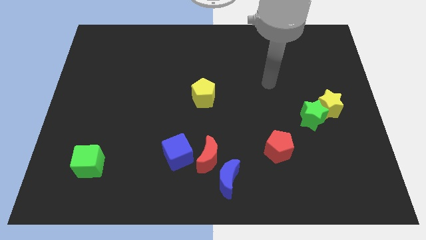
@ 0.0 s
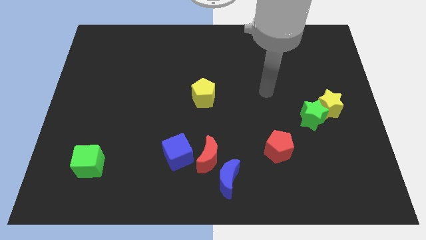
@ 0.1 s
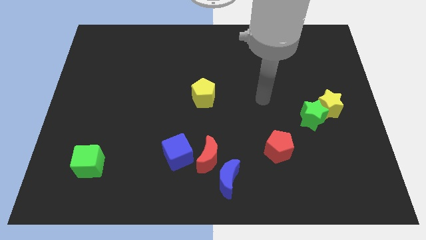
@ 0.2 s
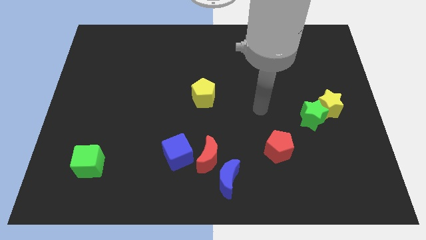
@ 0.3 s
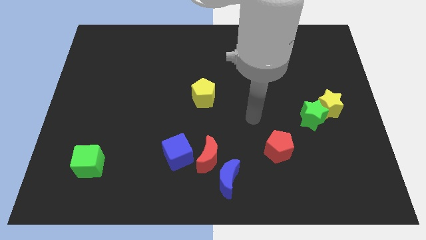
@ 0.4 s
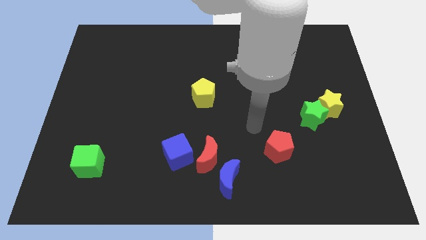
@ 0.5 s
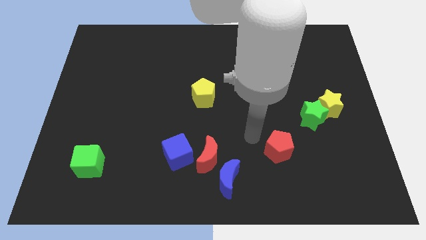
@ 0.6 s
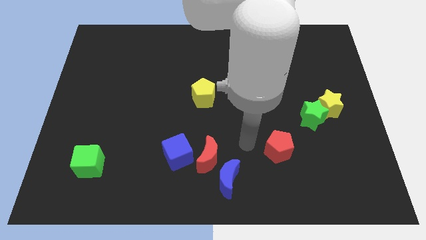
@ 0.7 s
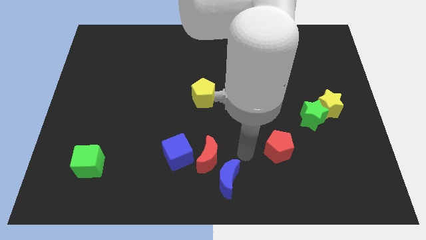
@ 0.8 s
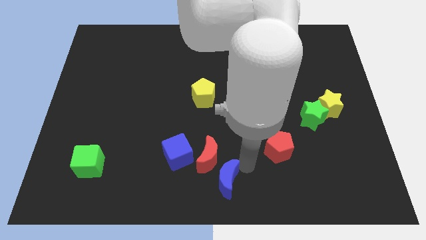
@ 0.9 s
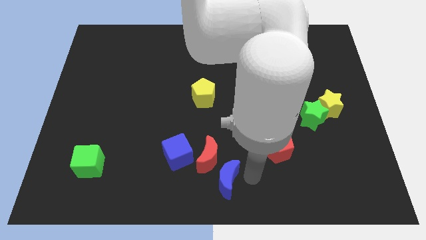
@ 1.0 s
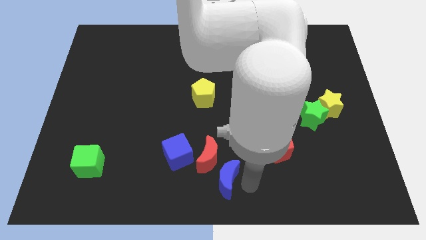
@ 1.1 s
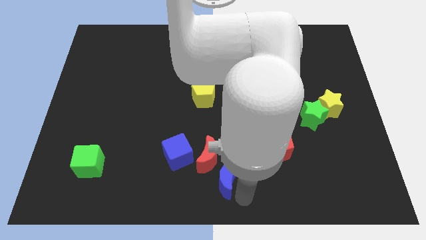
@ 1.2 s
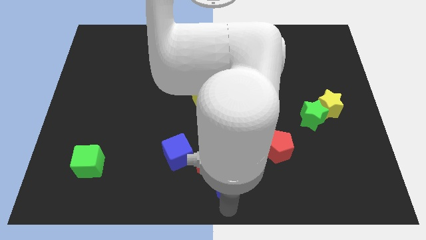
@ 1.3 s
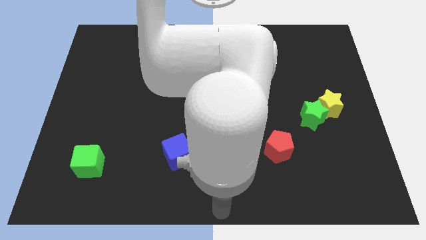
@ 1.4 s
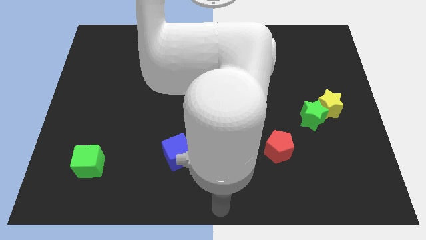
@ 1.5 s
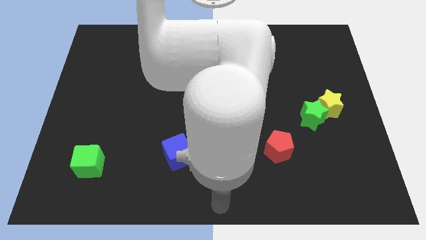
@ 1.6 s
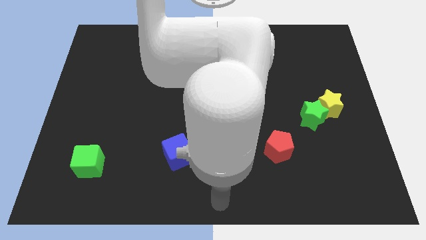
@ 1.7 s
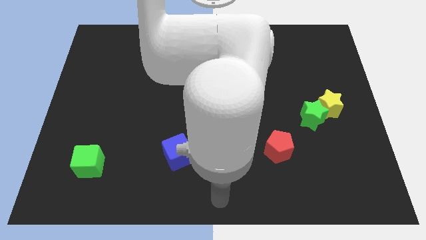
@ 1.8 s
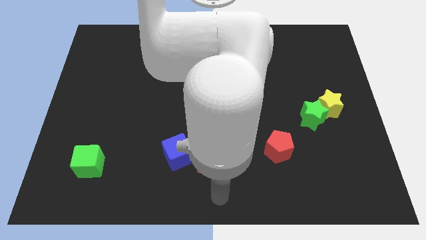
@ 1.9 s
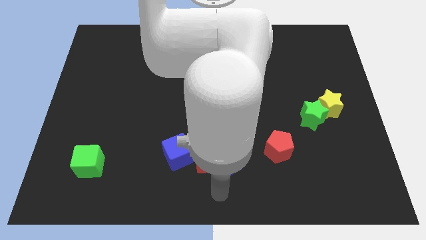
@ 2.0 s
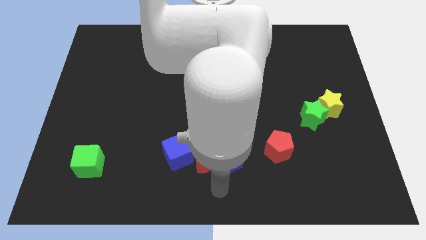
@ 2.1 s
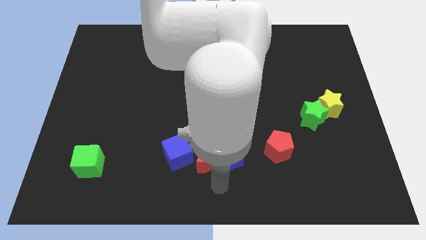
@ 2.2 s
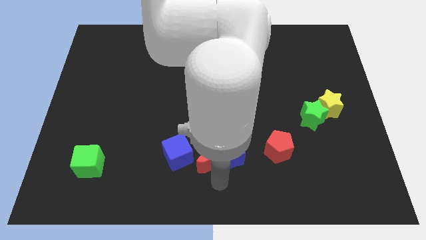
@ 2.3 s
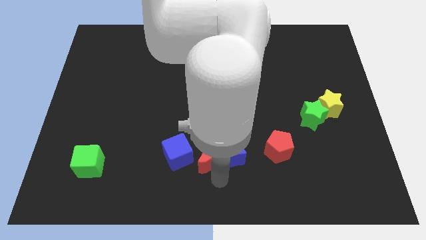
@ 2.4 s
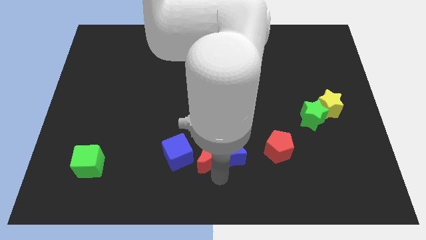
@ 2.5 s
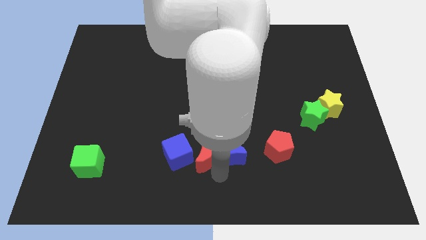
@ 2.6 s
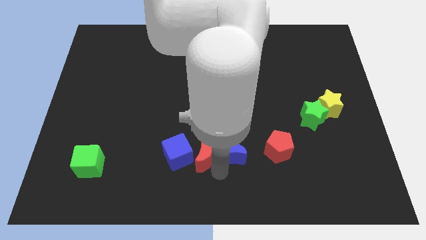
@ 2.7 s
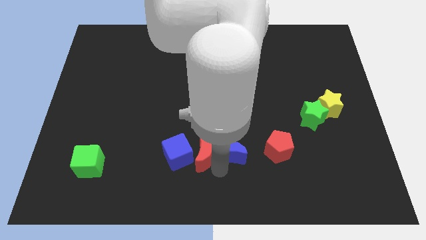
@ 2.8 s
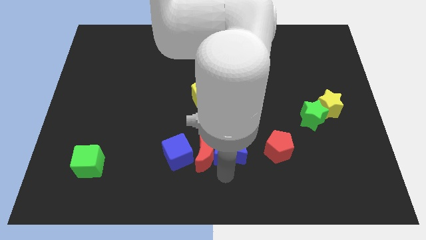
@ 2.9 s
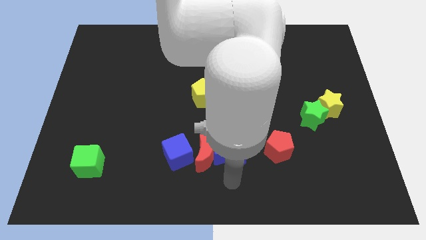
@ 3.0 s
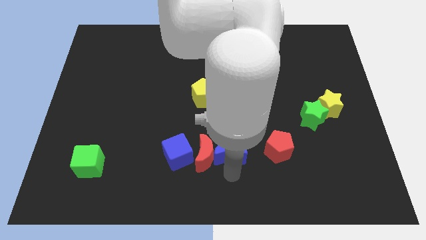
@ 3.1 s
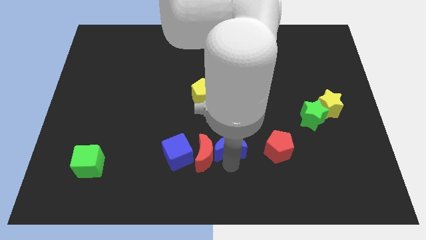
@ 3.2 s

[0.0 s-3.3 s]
slightly push the blue moon upwards

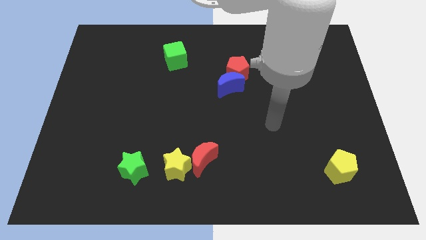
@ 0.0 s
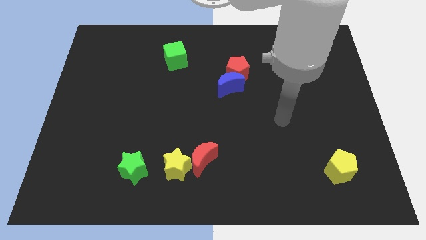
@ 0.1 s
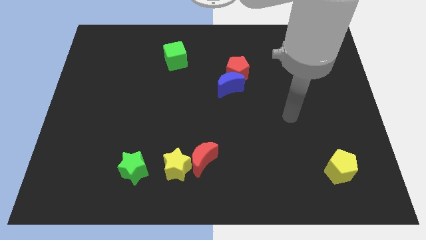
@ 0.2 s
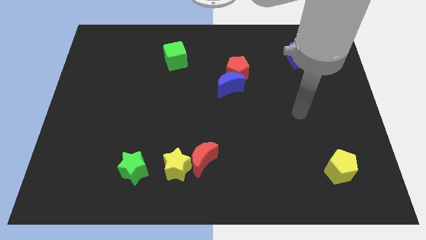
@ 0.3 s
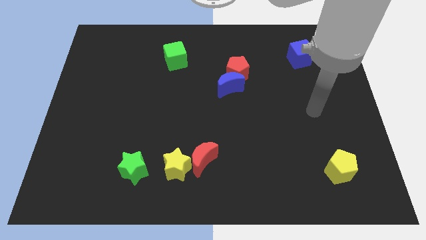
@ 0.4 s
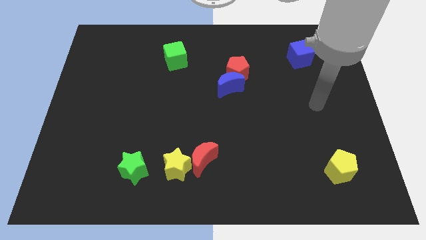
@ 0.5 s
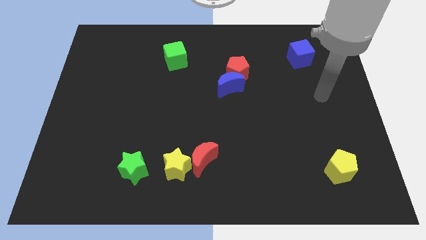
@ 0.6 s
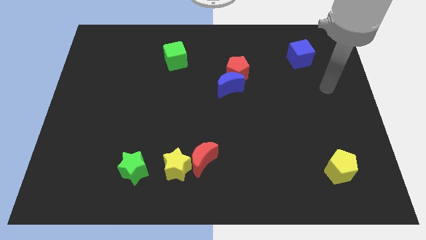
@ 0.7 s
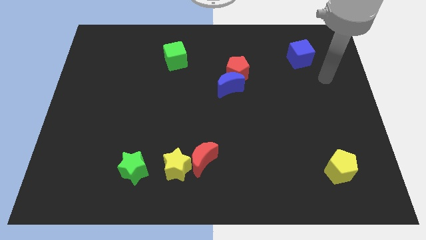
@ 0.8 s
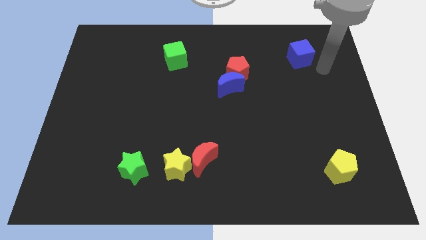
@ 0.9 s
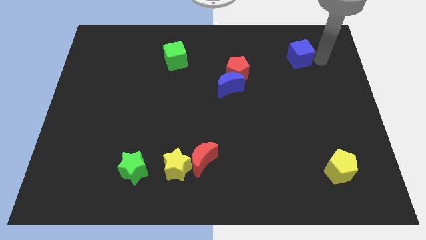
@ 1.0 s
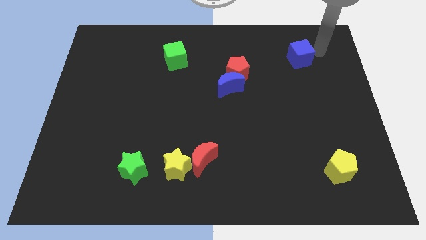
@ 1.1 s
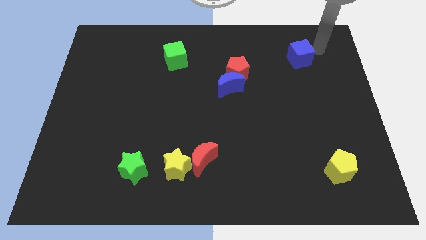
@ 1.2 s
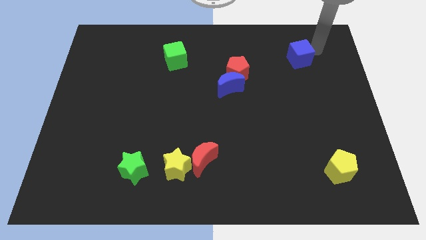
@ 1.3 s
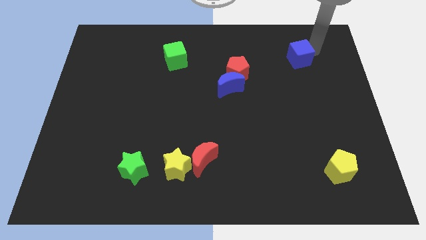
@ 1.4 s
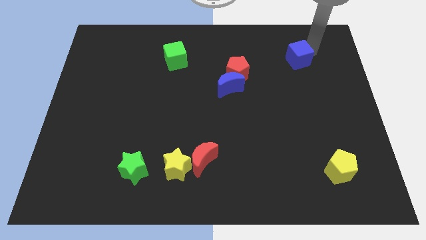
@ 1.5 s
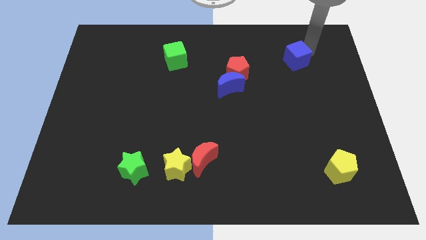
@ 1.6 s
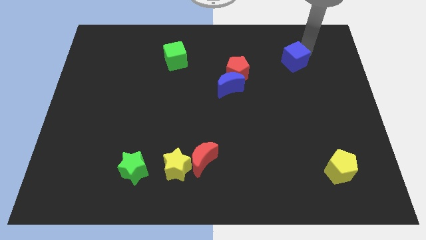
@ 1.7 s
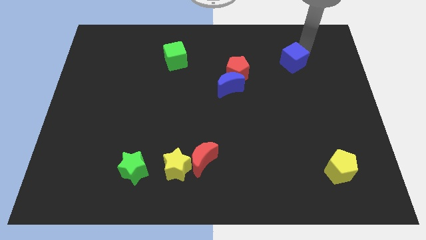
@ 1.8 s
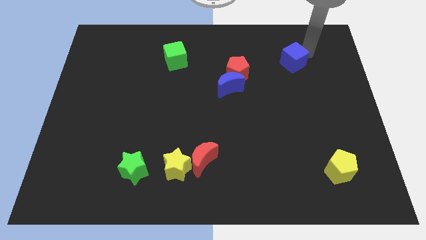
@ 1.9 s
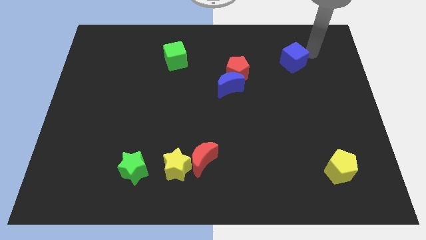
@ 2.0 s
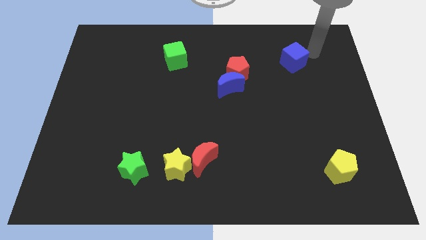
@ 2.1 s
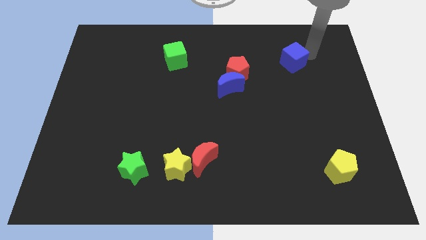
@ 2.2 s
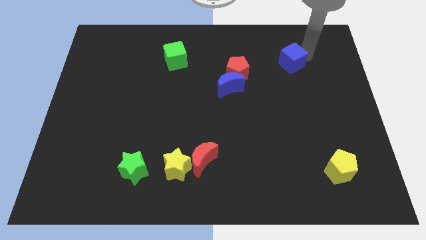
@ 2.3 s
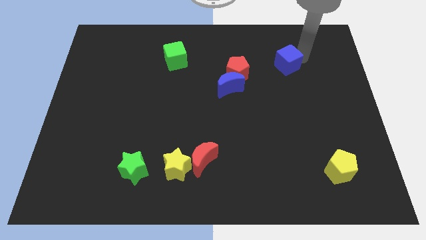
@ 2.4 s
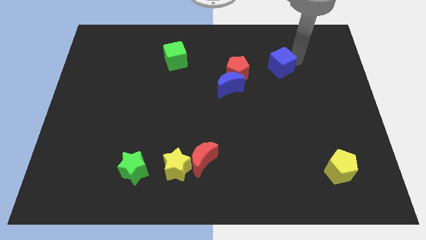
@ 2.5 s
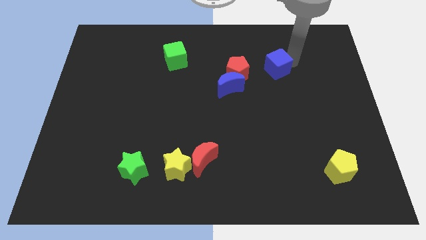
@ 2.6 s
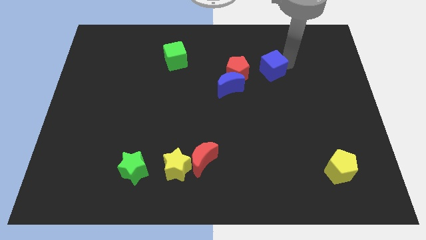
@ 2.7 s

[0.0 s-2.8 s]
move the blue cube a little bit left

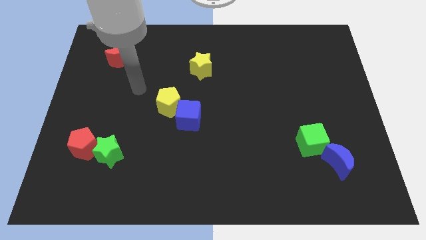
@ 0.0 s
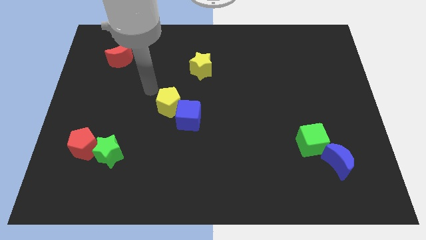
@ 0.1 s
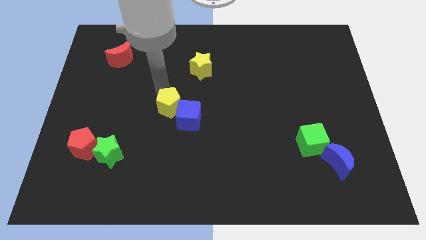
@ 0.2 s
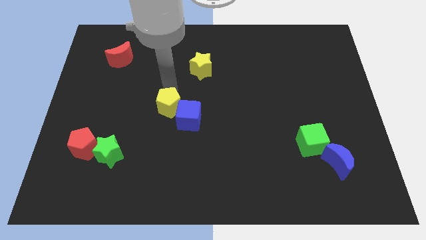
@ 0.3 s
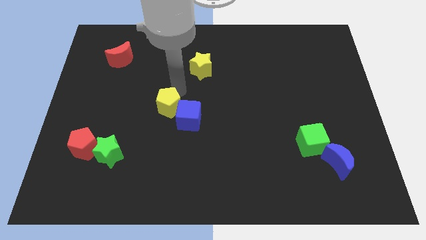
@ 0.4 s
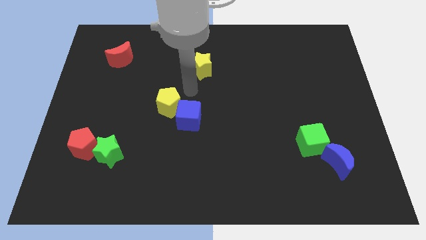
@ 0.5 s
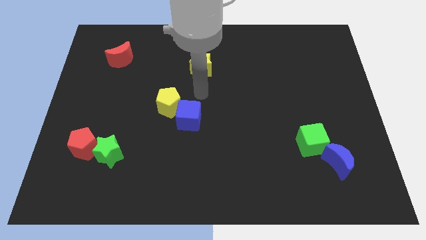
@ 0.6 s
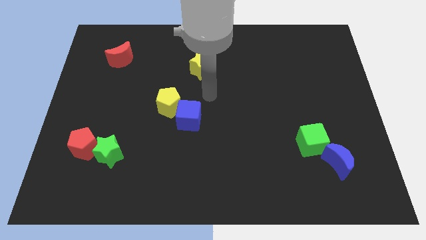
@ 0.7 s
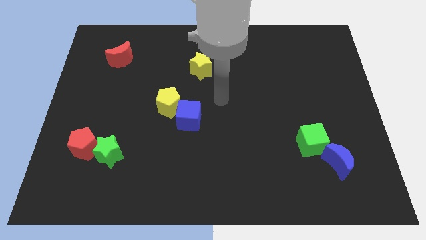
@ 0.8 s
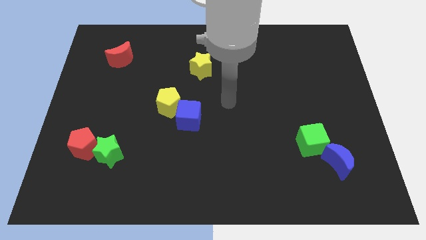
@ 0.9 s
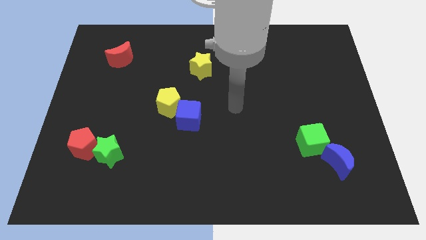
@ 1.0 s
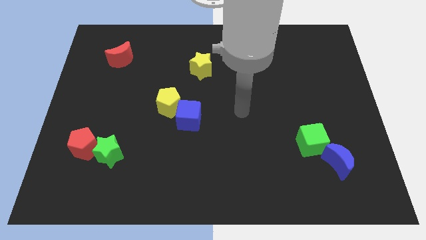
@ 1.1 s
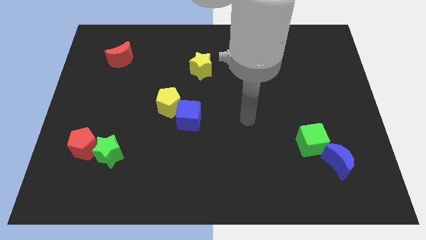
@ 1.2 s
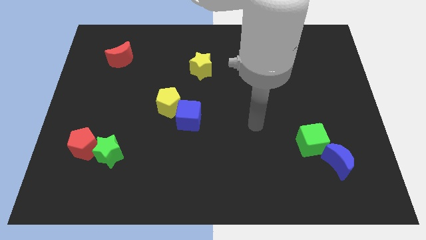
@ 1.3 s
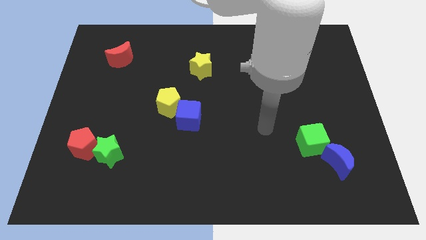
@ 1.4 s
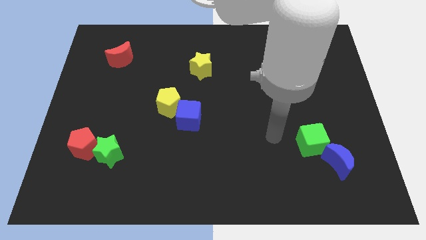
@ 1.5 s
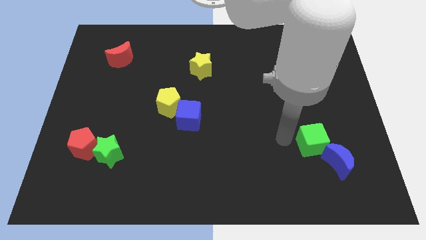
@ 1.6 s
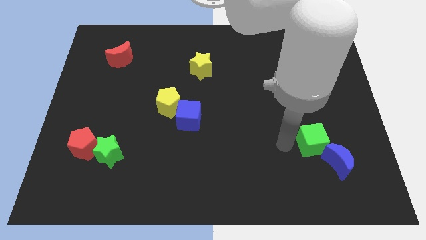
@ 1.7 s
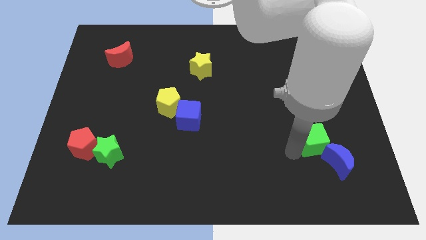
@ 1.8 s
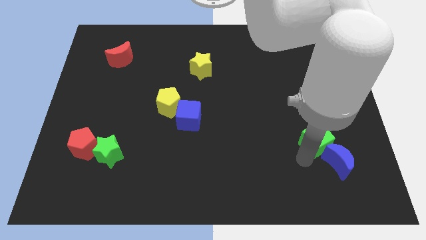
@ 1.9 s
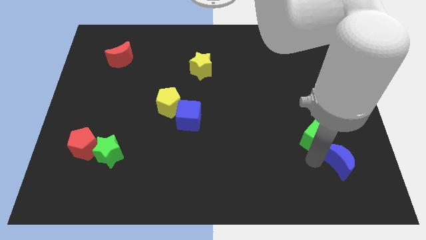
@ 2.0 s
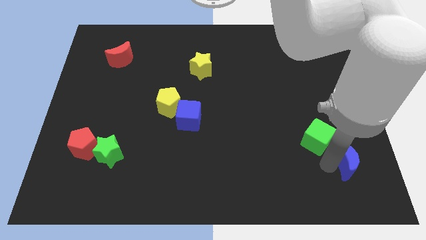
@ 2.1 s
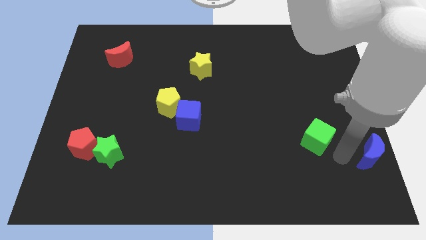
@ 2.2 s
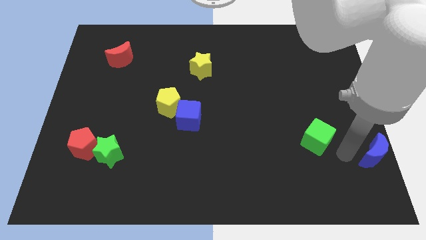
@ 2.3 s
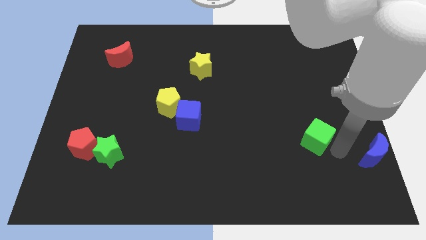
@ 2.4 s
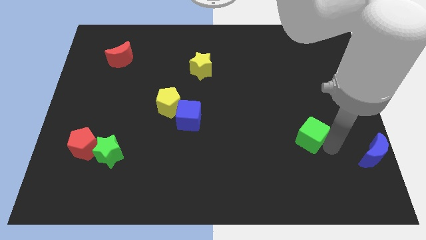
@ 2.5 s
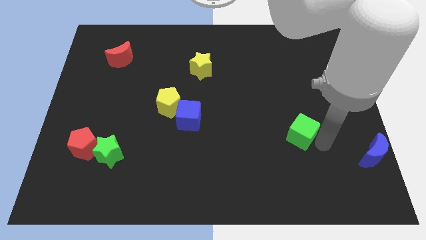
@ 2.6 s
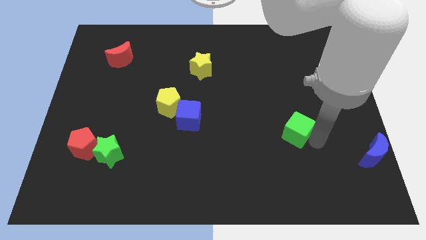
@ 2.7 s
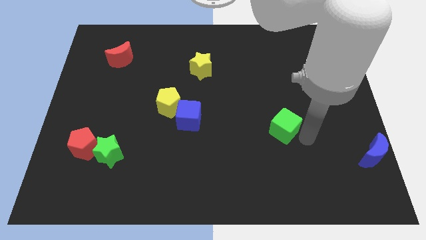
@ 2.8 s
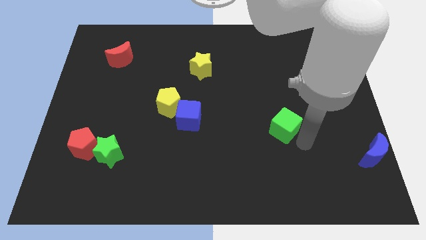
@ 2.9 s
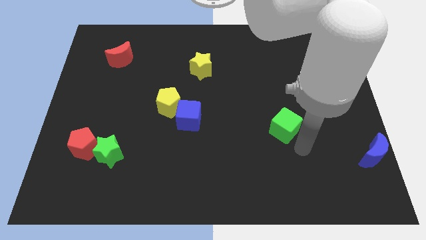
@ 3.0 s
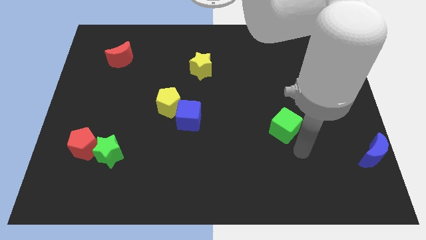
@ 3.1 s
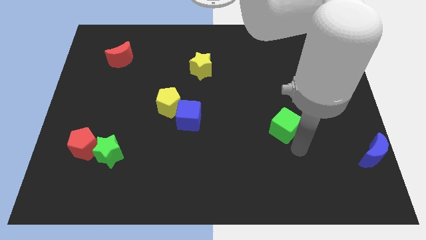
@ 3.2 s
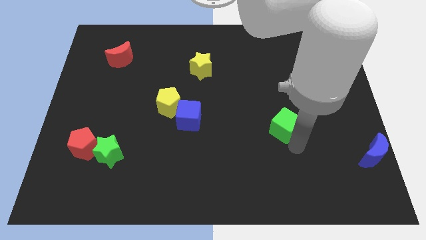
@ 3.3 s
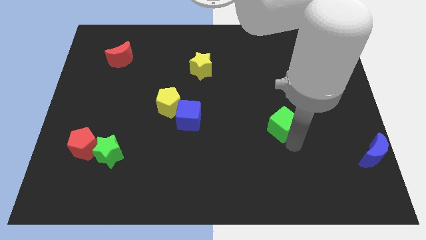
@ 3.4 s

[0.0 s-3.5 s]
move the green cube up and to the left somewhat
